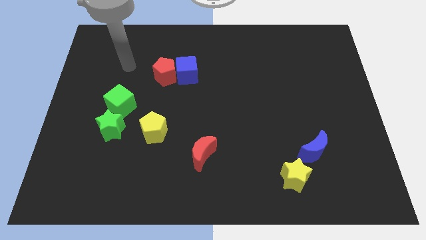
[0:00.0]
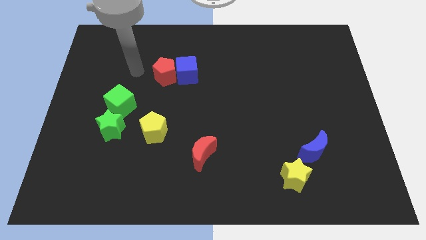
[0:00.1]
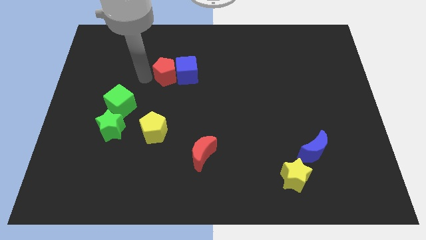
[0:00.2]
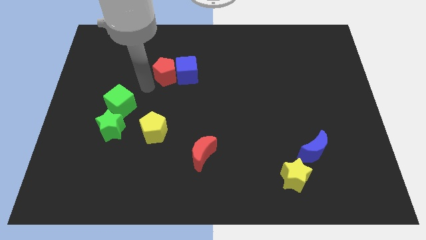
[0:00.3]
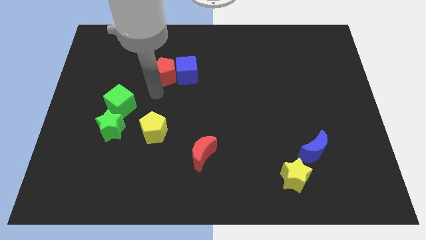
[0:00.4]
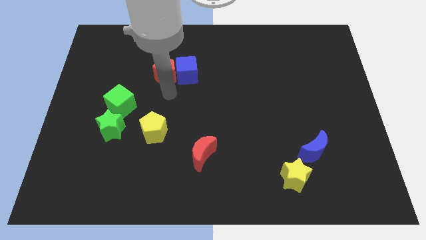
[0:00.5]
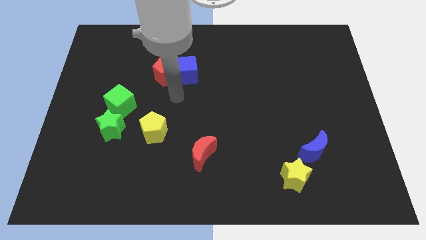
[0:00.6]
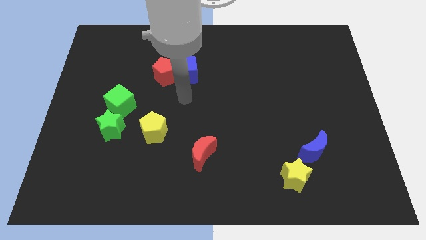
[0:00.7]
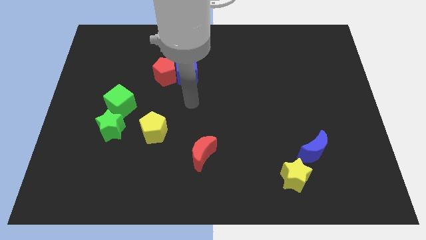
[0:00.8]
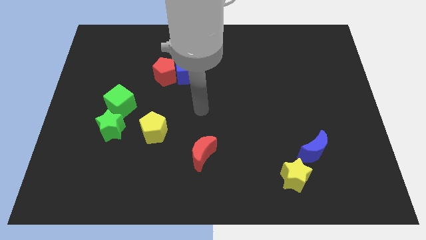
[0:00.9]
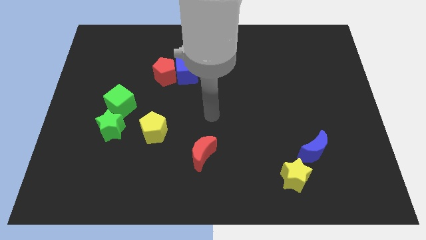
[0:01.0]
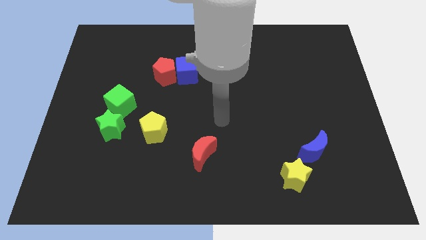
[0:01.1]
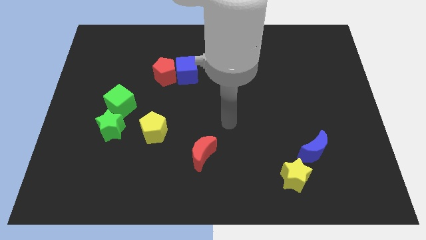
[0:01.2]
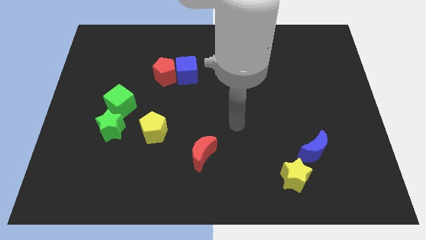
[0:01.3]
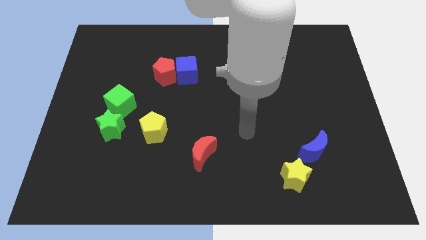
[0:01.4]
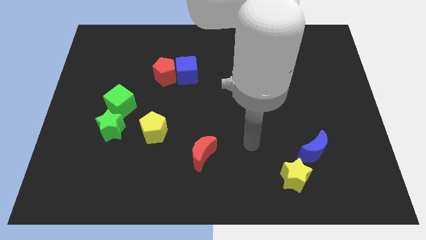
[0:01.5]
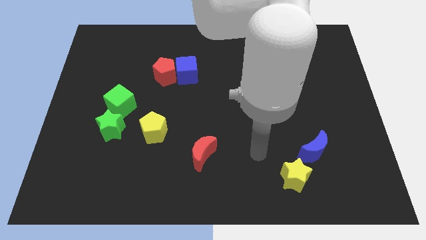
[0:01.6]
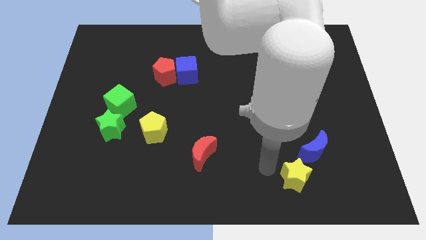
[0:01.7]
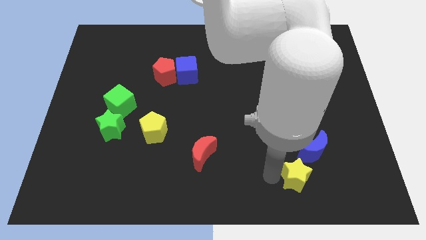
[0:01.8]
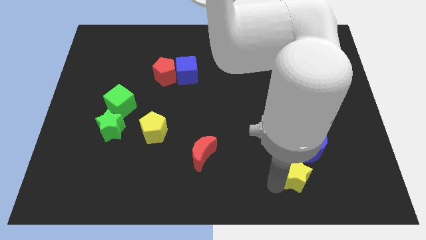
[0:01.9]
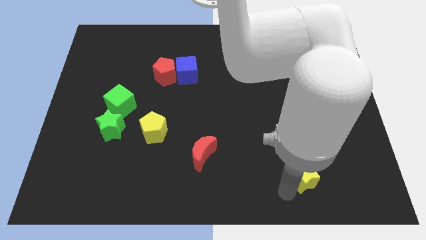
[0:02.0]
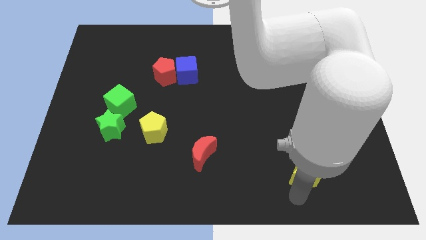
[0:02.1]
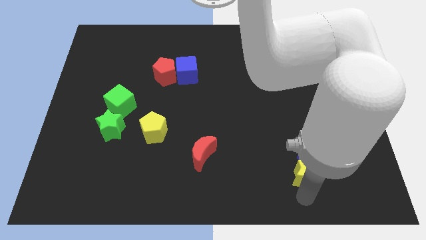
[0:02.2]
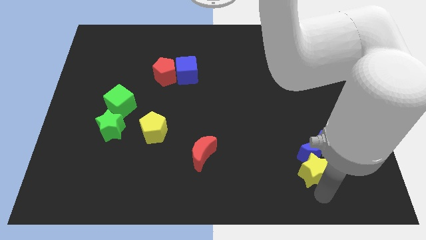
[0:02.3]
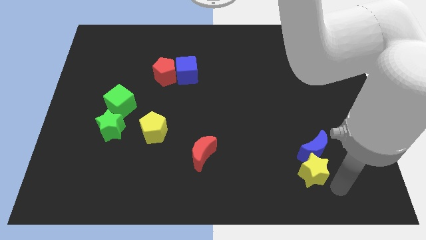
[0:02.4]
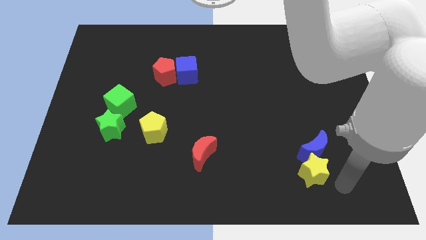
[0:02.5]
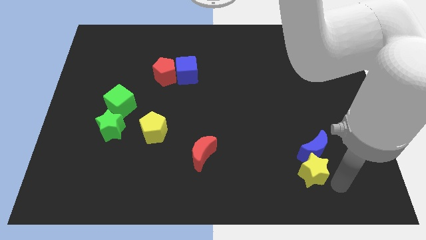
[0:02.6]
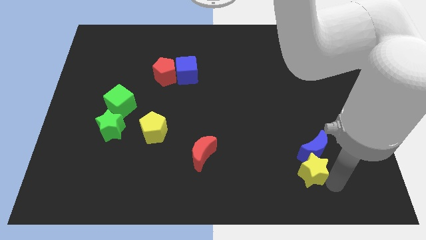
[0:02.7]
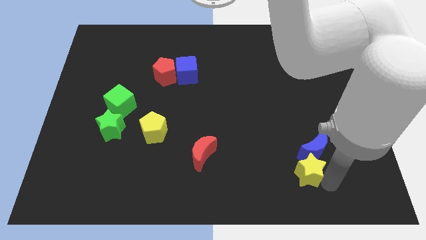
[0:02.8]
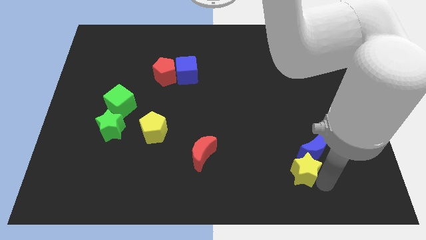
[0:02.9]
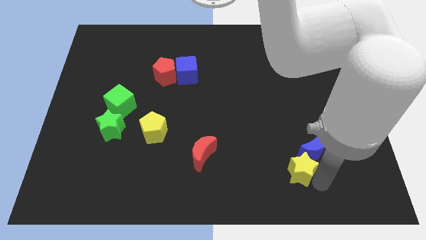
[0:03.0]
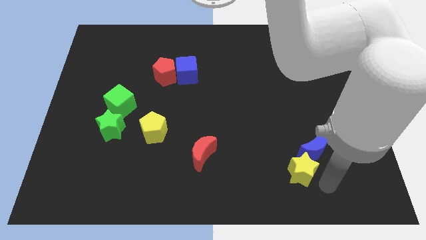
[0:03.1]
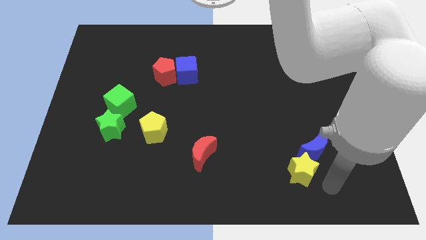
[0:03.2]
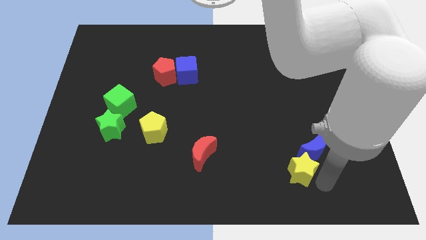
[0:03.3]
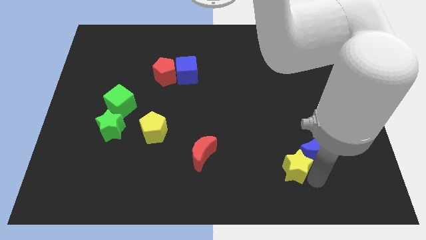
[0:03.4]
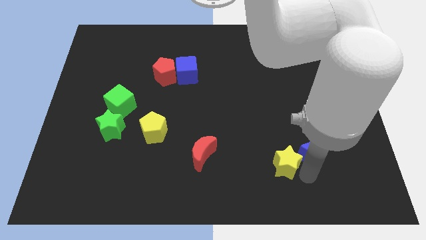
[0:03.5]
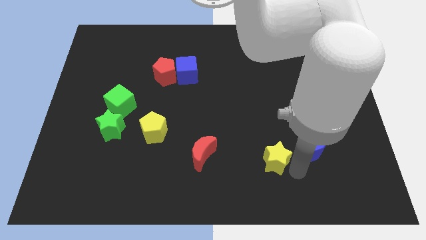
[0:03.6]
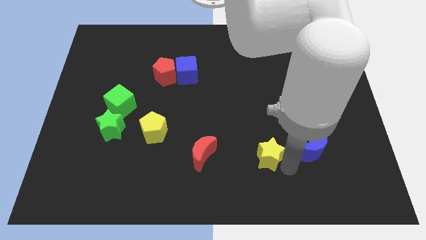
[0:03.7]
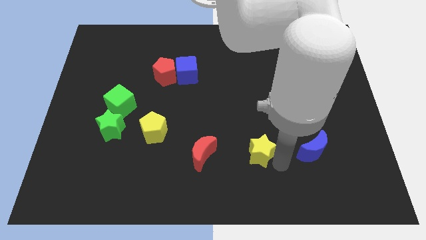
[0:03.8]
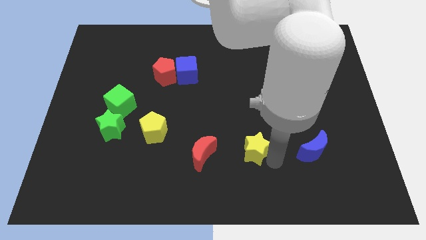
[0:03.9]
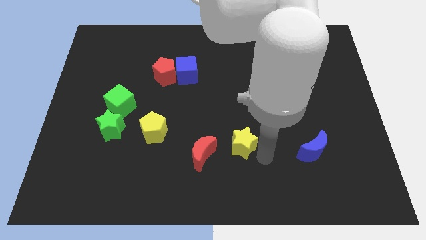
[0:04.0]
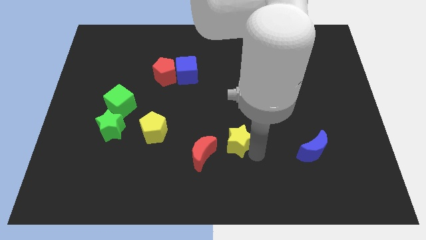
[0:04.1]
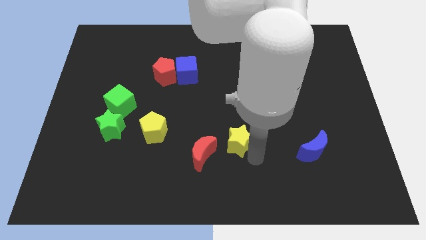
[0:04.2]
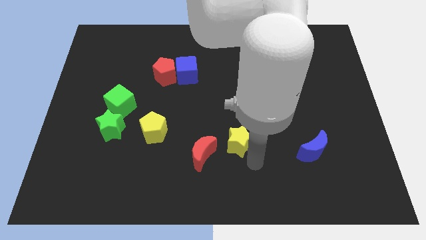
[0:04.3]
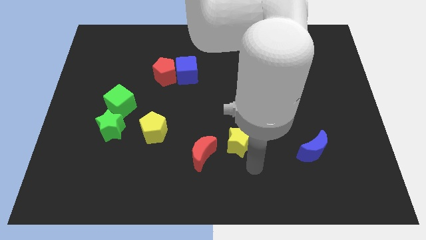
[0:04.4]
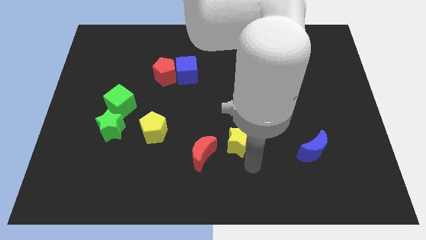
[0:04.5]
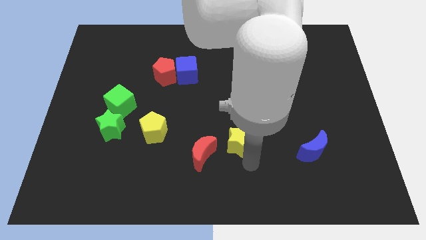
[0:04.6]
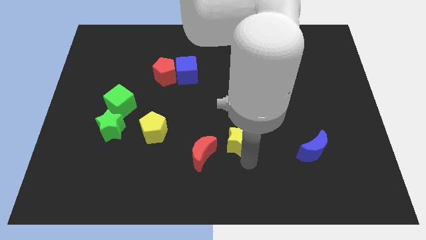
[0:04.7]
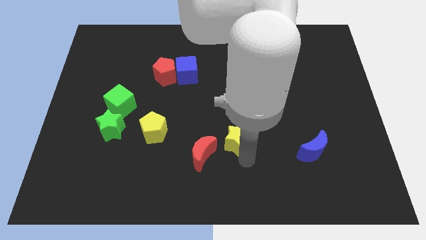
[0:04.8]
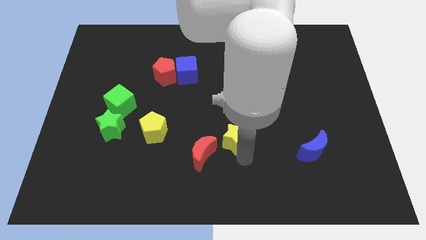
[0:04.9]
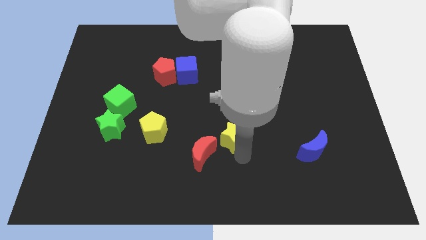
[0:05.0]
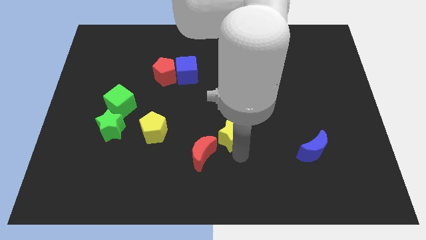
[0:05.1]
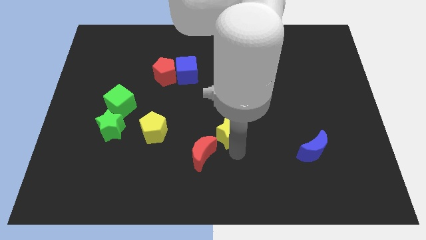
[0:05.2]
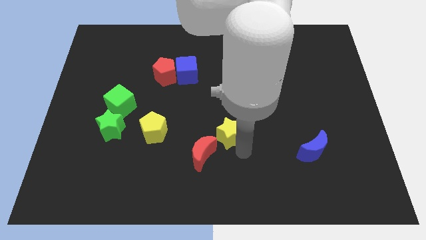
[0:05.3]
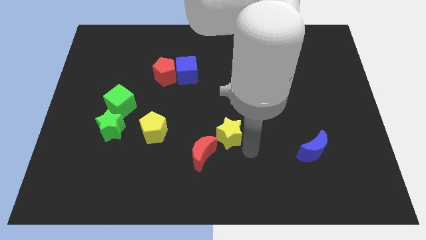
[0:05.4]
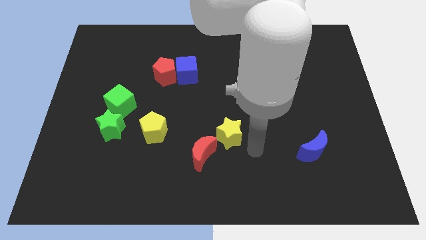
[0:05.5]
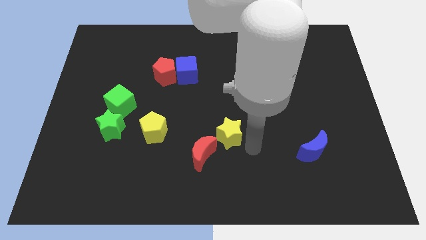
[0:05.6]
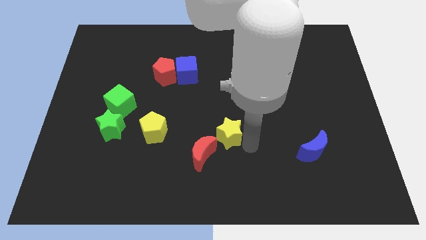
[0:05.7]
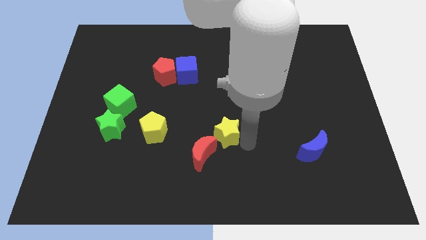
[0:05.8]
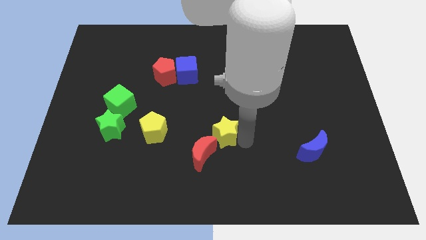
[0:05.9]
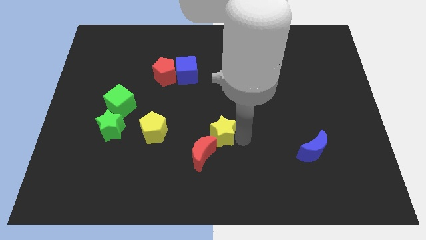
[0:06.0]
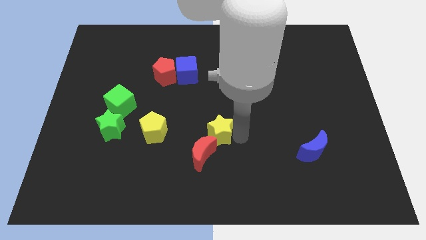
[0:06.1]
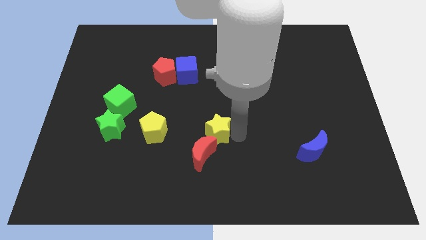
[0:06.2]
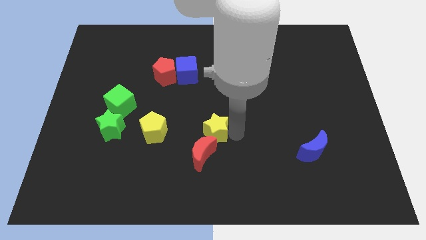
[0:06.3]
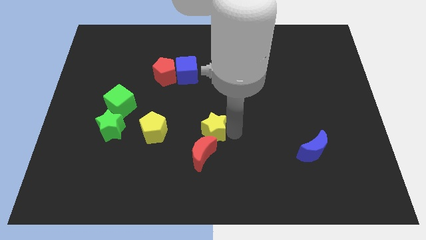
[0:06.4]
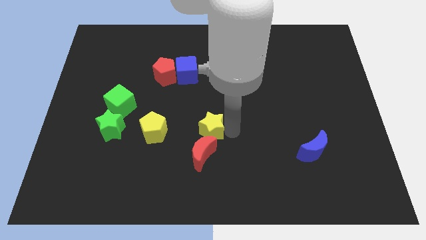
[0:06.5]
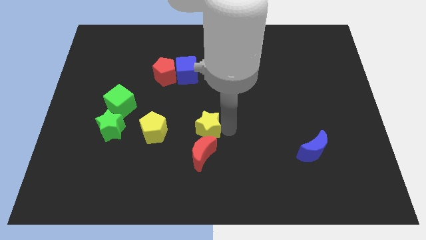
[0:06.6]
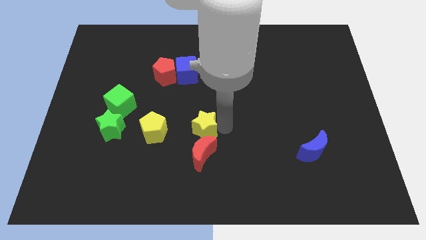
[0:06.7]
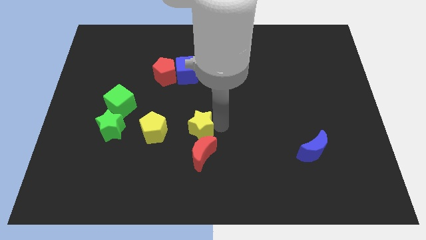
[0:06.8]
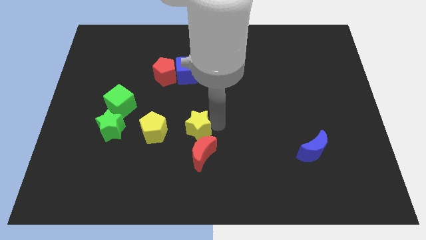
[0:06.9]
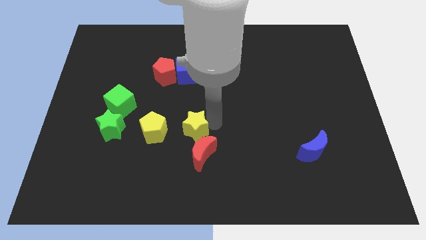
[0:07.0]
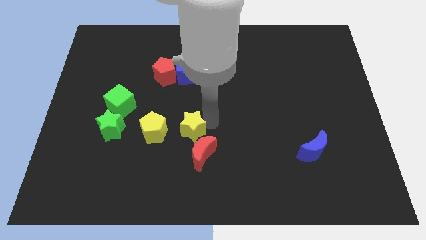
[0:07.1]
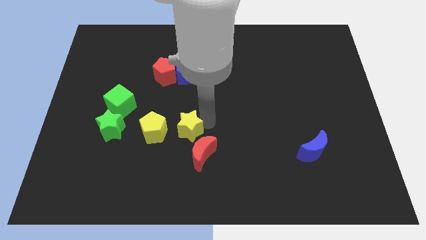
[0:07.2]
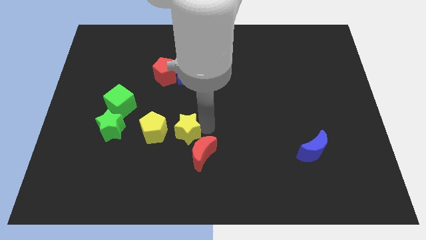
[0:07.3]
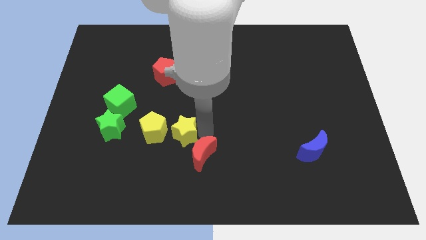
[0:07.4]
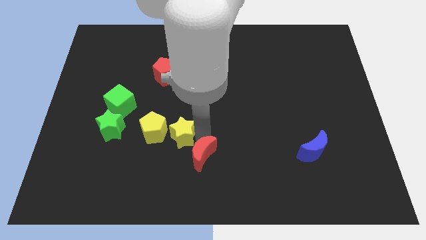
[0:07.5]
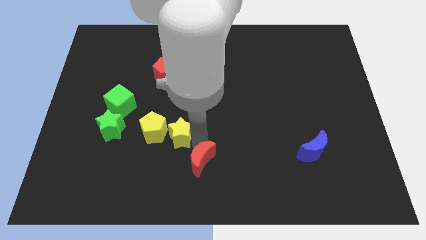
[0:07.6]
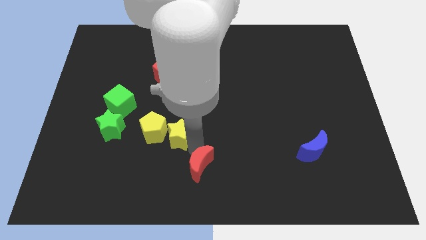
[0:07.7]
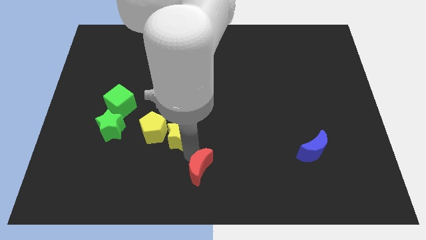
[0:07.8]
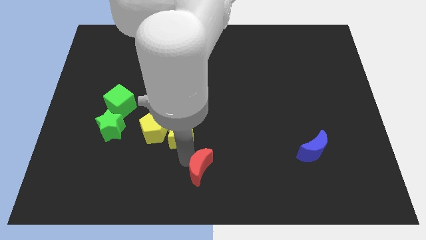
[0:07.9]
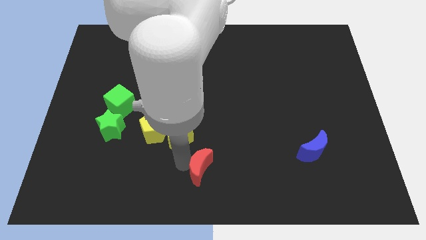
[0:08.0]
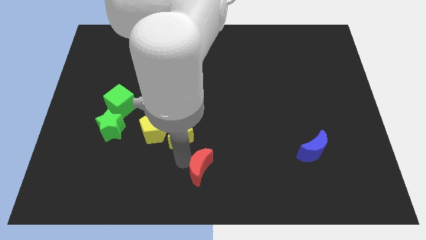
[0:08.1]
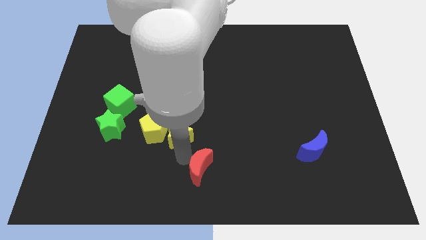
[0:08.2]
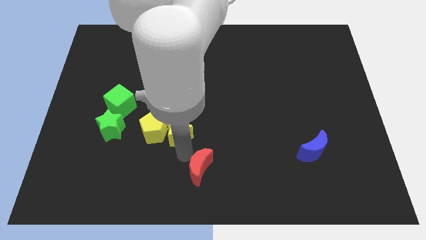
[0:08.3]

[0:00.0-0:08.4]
move the yellow star diagonally up and to the right of the yellow pentagon
